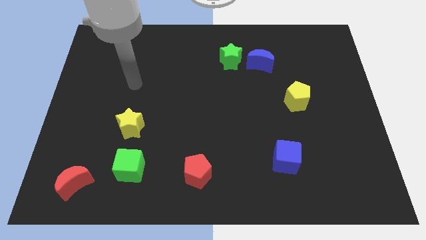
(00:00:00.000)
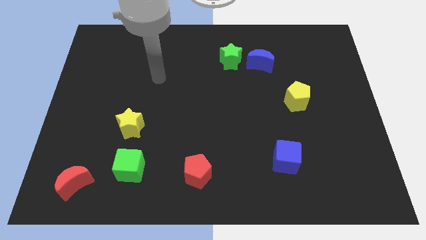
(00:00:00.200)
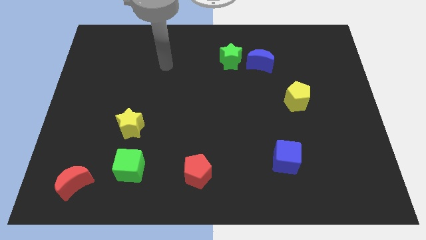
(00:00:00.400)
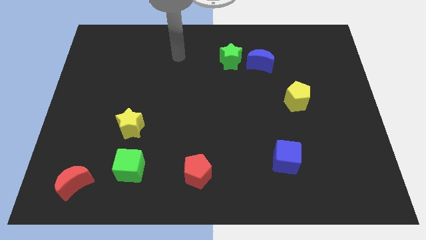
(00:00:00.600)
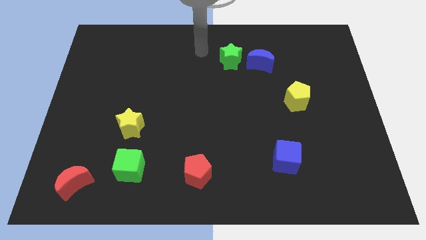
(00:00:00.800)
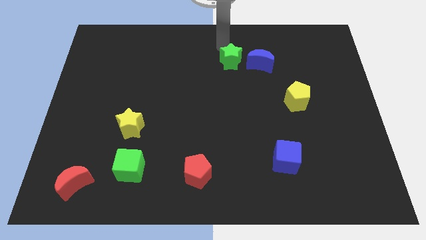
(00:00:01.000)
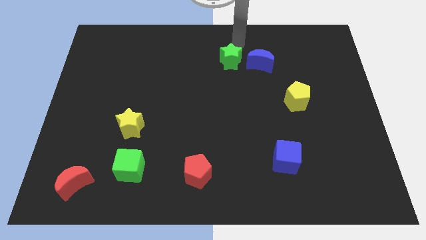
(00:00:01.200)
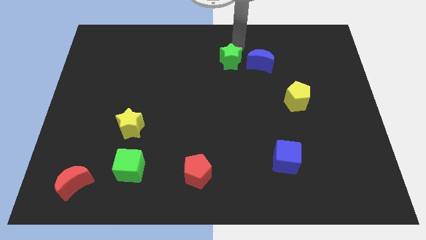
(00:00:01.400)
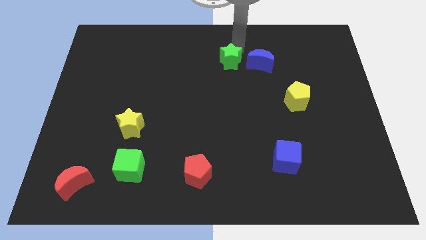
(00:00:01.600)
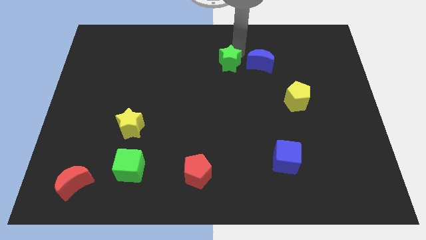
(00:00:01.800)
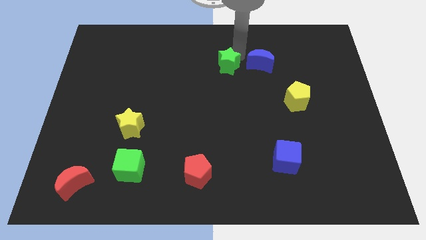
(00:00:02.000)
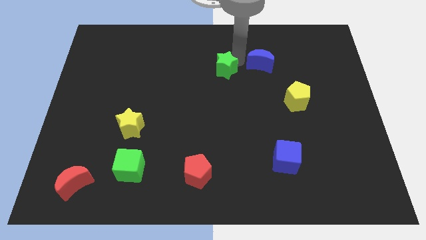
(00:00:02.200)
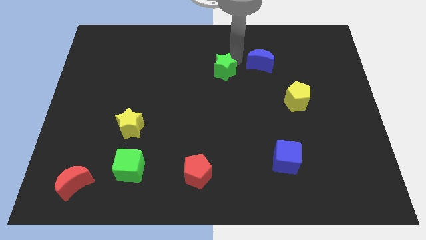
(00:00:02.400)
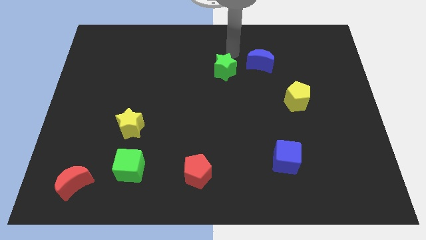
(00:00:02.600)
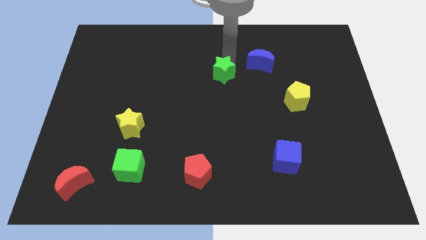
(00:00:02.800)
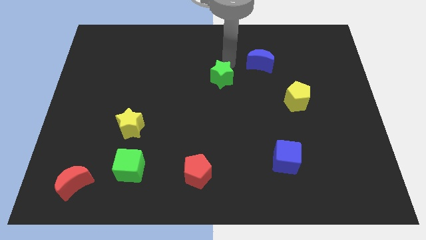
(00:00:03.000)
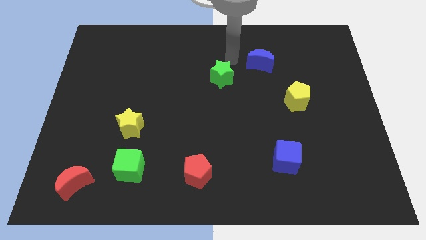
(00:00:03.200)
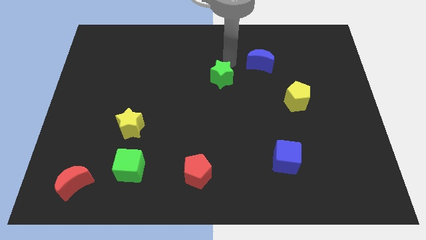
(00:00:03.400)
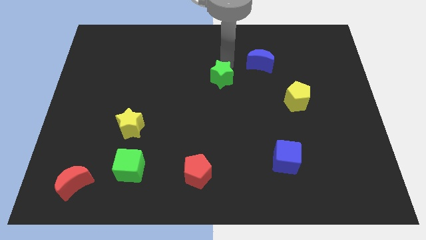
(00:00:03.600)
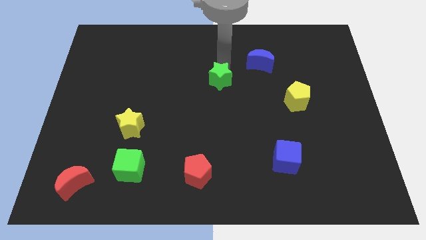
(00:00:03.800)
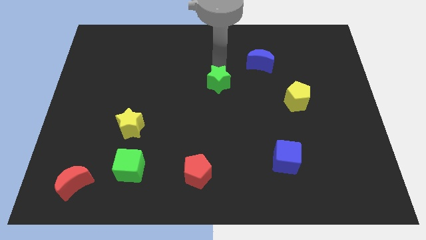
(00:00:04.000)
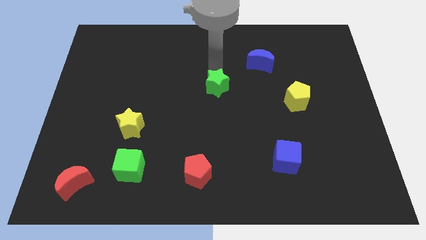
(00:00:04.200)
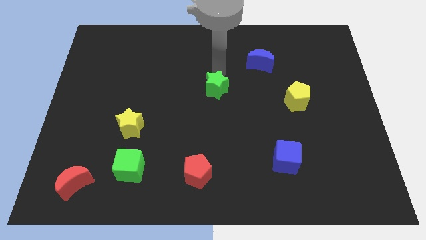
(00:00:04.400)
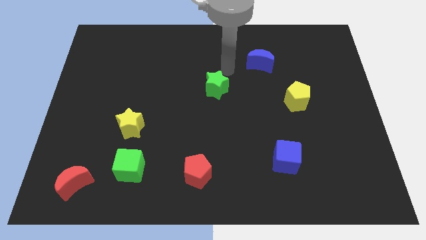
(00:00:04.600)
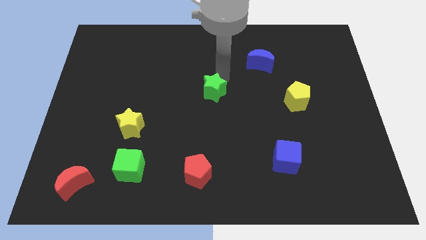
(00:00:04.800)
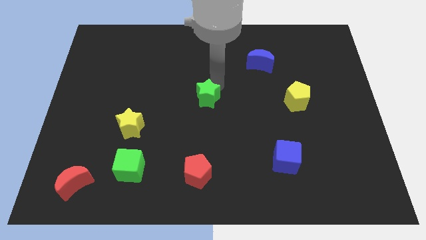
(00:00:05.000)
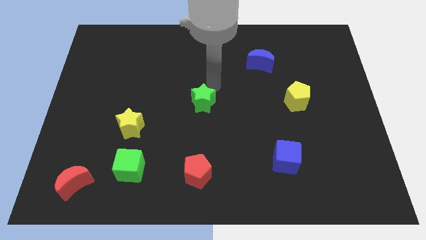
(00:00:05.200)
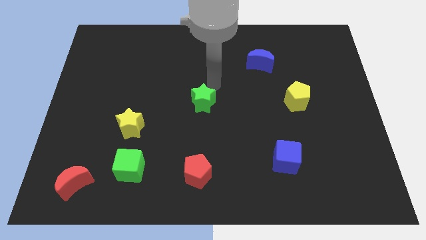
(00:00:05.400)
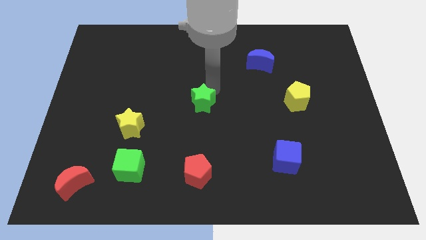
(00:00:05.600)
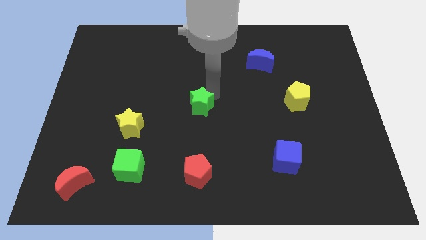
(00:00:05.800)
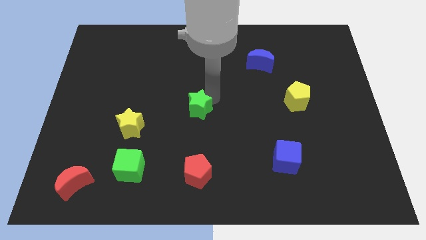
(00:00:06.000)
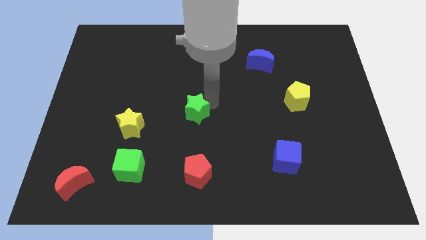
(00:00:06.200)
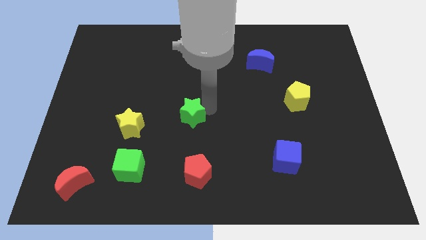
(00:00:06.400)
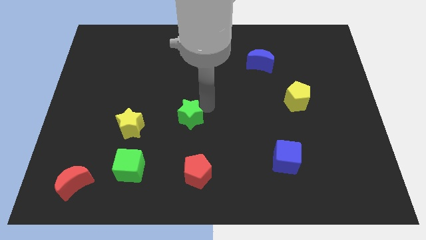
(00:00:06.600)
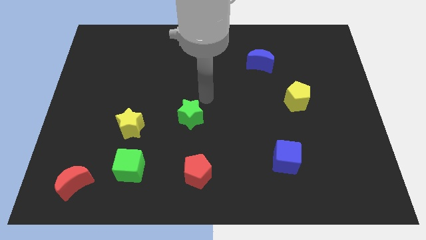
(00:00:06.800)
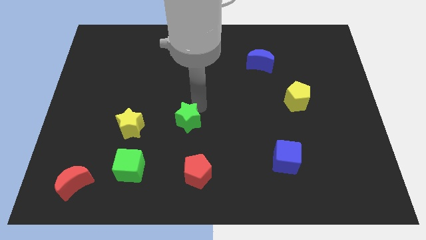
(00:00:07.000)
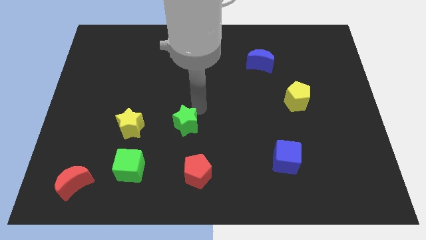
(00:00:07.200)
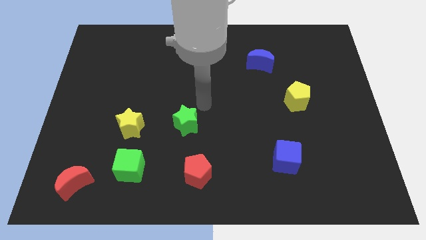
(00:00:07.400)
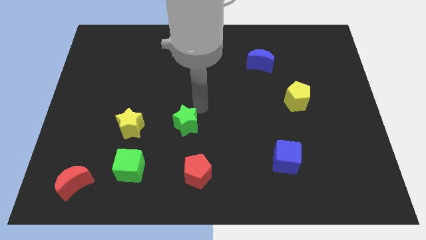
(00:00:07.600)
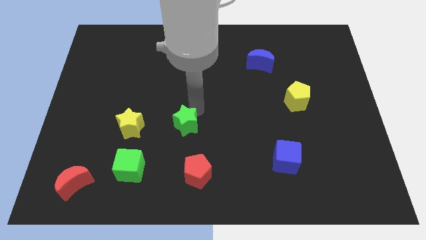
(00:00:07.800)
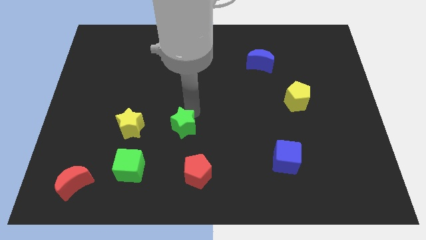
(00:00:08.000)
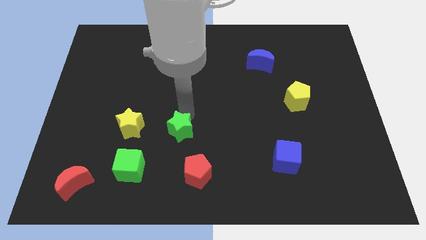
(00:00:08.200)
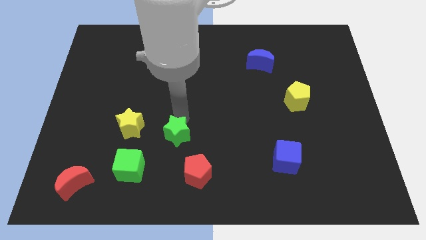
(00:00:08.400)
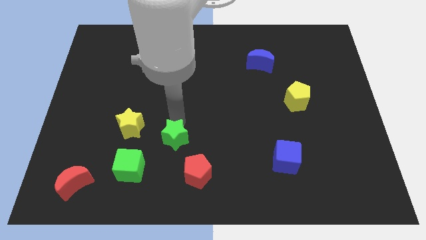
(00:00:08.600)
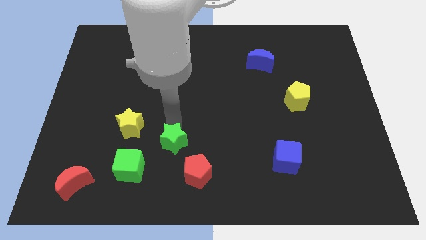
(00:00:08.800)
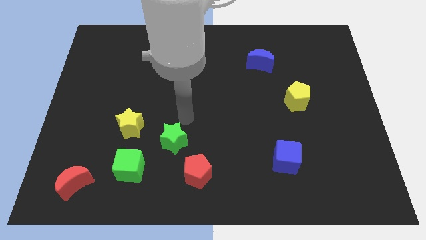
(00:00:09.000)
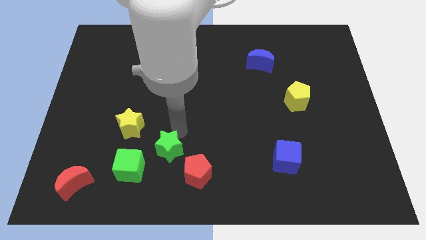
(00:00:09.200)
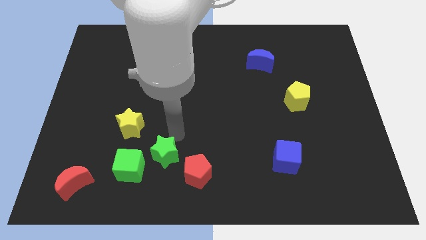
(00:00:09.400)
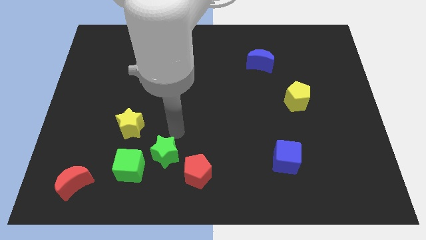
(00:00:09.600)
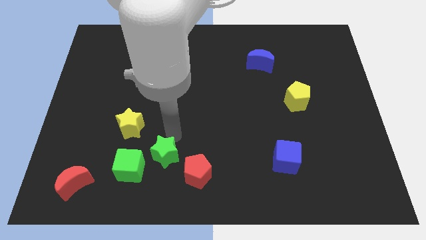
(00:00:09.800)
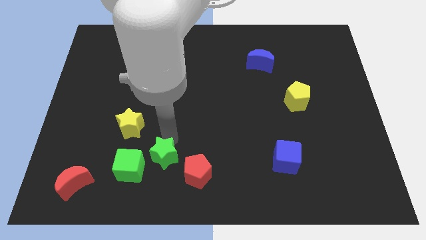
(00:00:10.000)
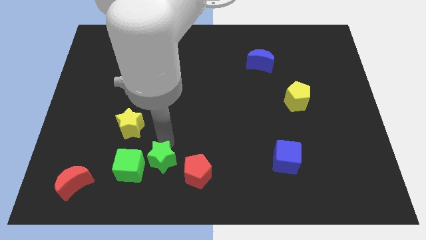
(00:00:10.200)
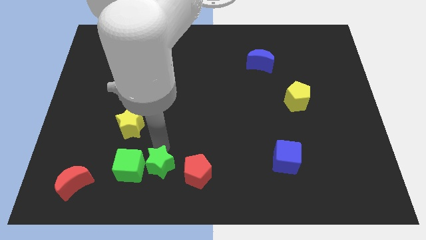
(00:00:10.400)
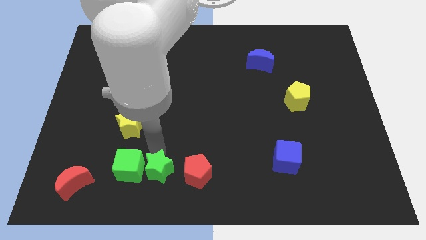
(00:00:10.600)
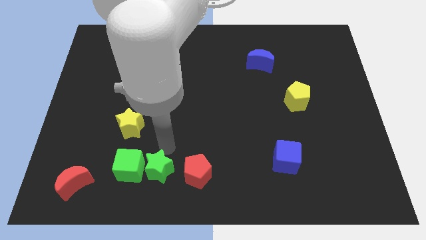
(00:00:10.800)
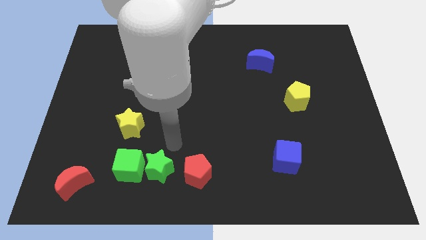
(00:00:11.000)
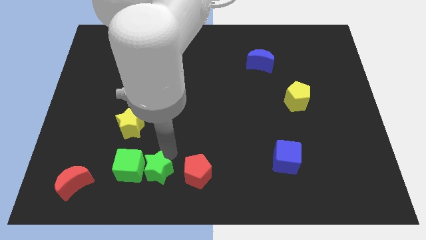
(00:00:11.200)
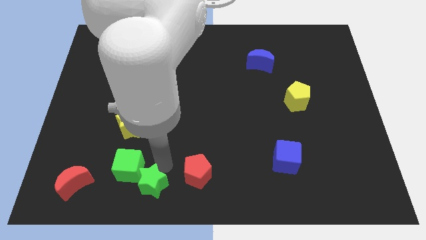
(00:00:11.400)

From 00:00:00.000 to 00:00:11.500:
push the green star right of the red moon
